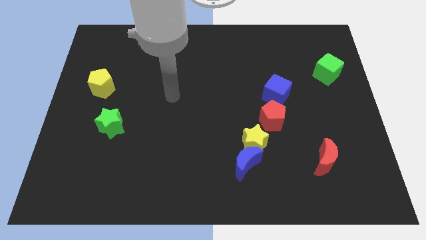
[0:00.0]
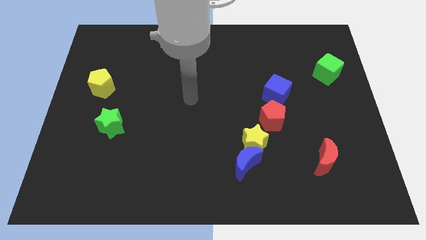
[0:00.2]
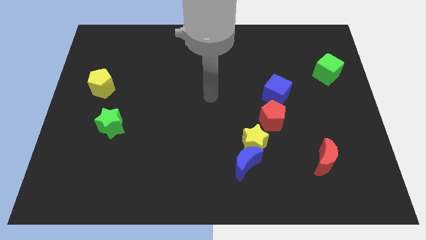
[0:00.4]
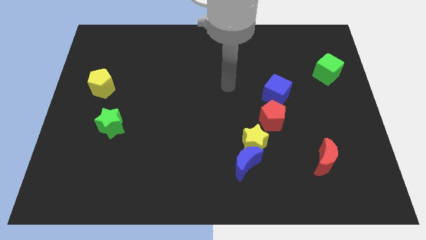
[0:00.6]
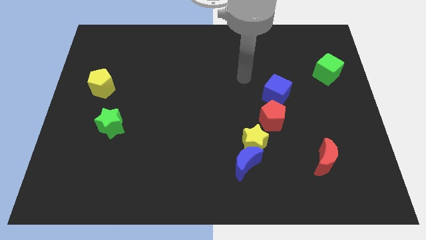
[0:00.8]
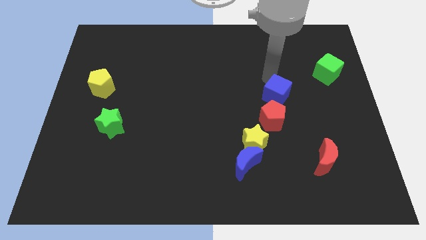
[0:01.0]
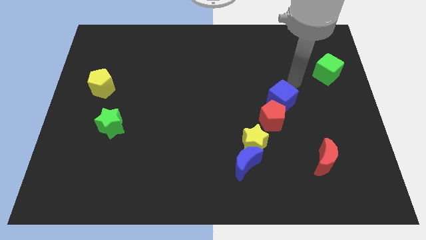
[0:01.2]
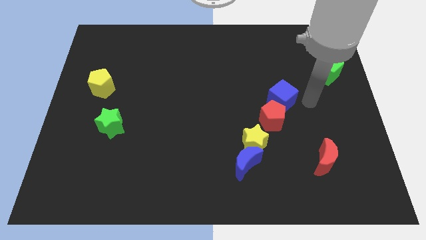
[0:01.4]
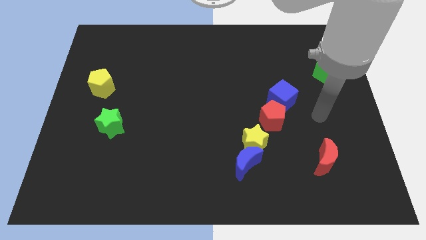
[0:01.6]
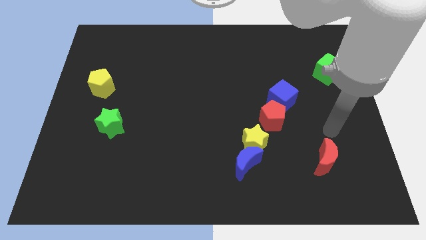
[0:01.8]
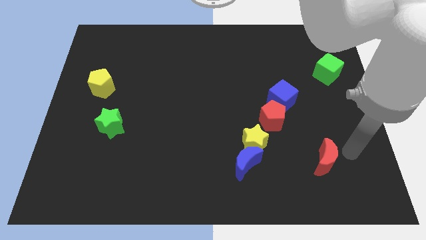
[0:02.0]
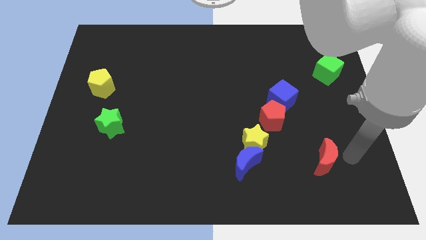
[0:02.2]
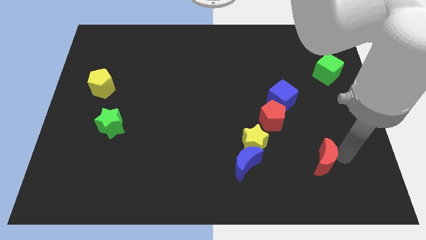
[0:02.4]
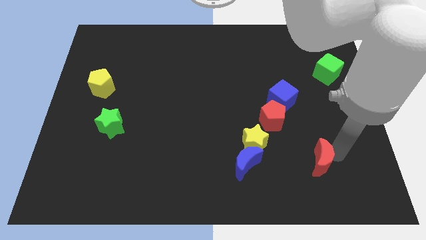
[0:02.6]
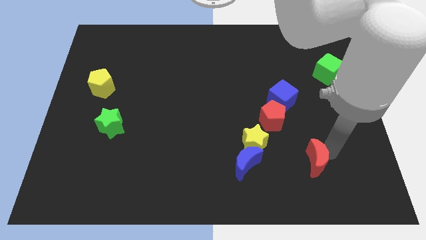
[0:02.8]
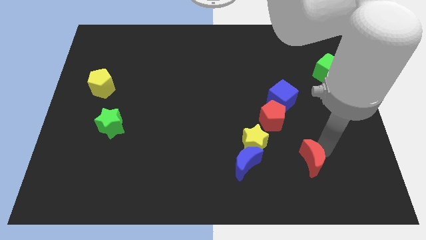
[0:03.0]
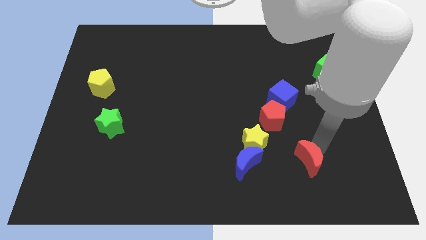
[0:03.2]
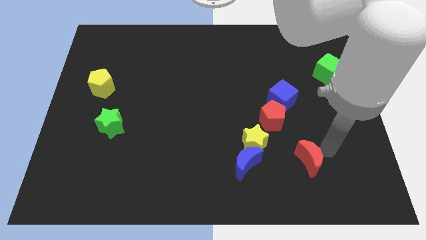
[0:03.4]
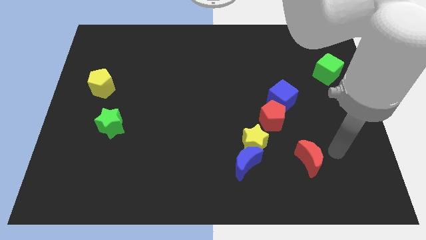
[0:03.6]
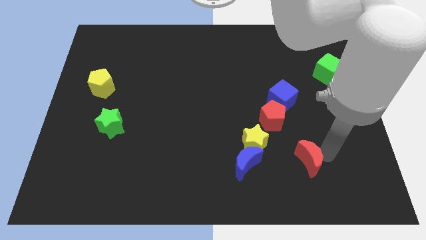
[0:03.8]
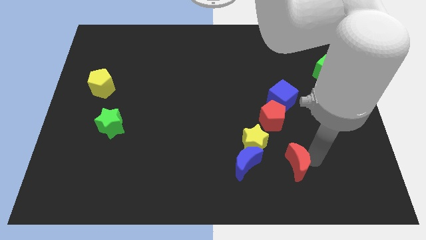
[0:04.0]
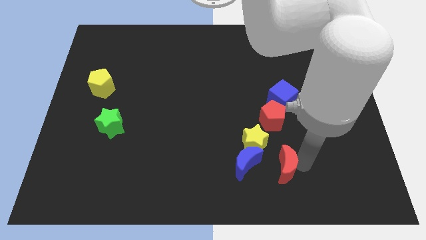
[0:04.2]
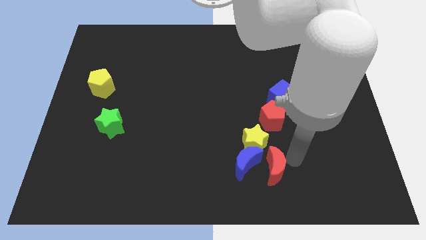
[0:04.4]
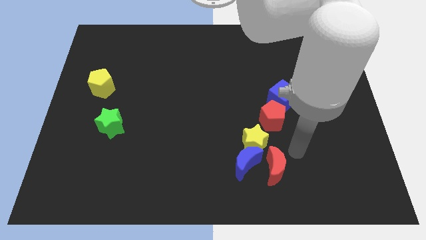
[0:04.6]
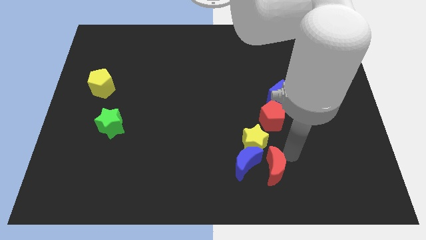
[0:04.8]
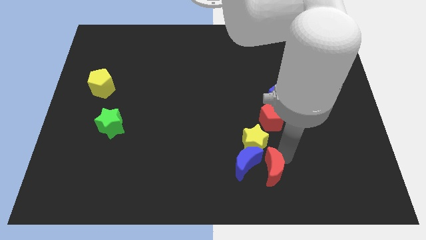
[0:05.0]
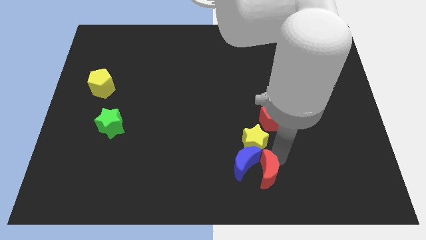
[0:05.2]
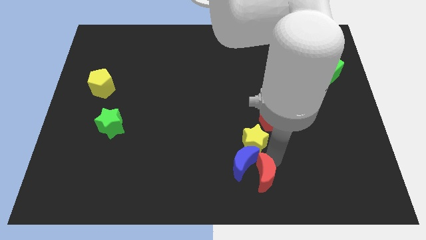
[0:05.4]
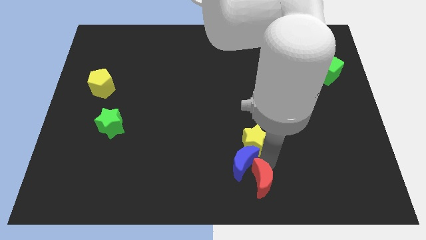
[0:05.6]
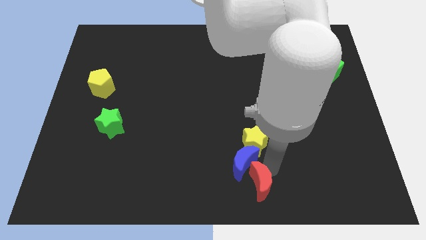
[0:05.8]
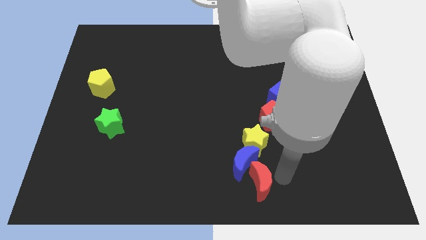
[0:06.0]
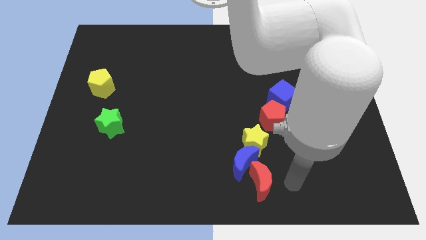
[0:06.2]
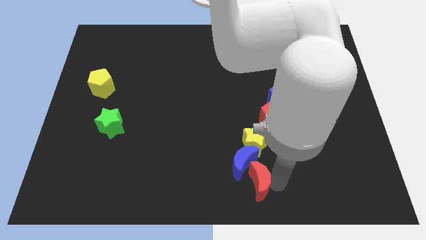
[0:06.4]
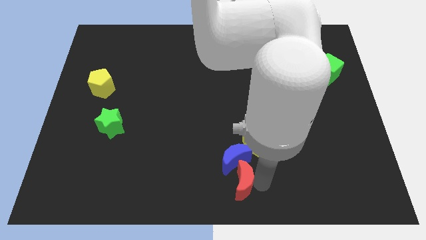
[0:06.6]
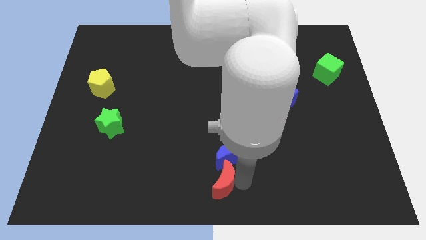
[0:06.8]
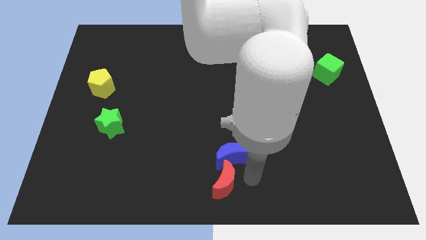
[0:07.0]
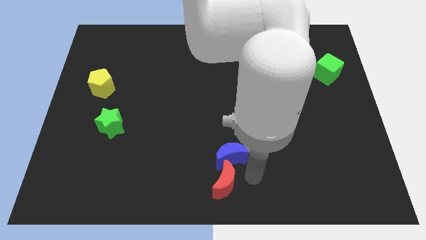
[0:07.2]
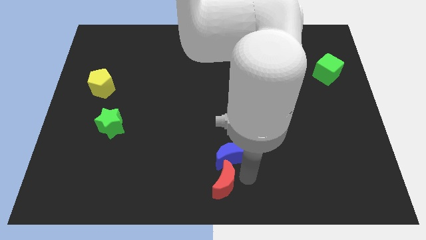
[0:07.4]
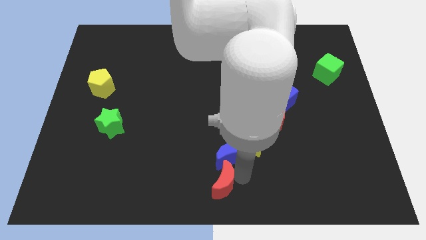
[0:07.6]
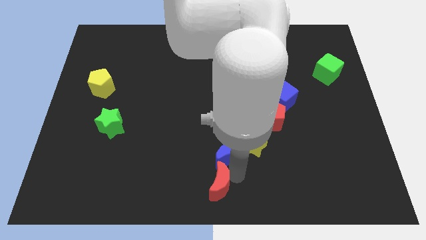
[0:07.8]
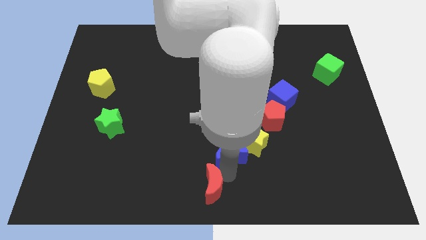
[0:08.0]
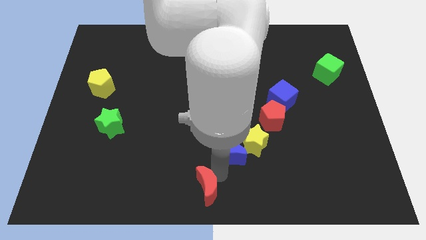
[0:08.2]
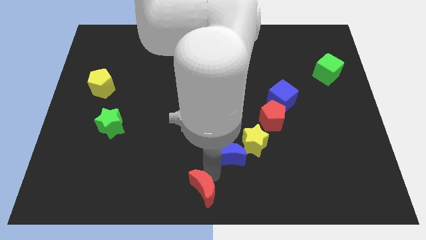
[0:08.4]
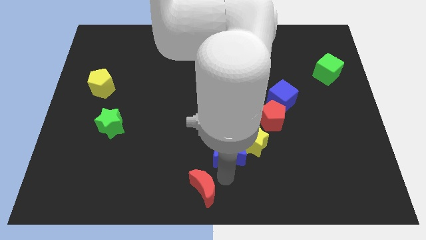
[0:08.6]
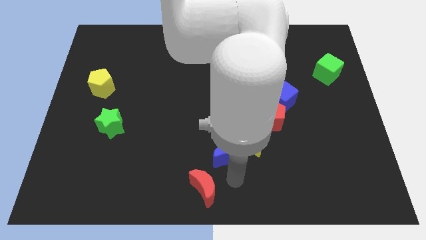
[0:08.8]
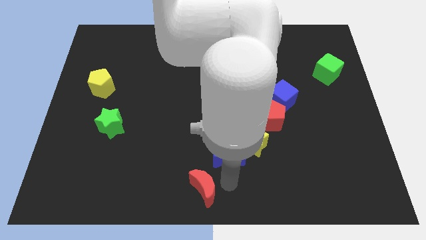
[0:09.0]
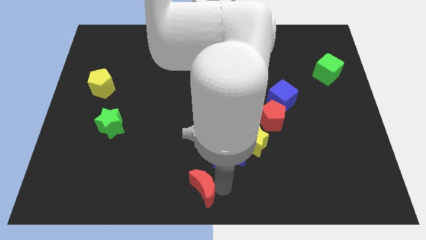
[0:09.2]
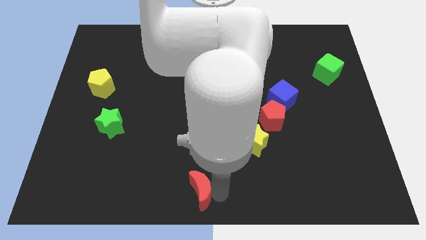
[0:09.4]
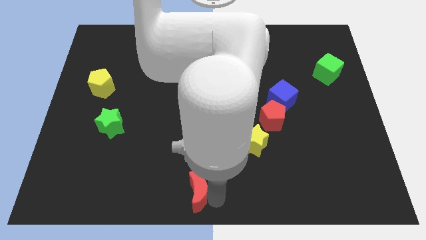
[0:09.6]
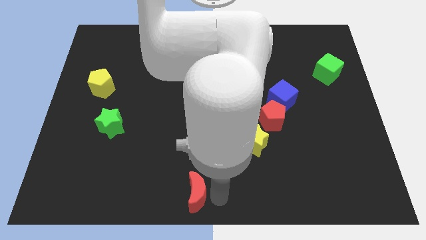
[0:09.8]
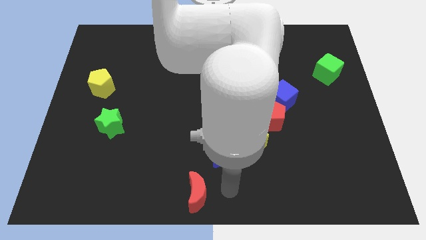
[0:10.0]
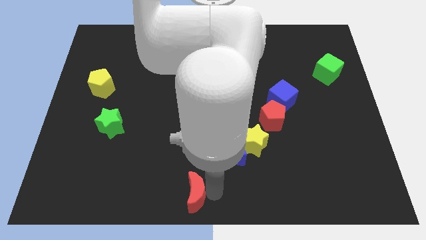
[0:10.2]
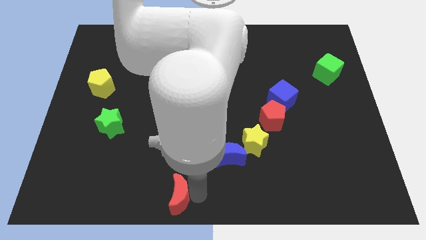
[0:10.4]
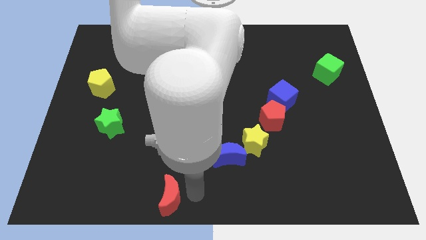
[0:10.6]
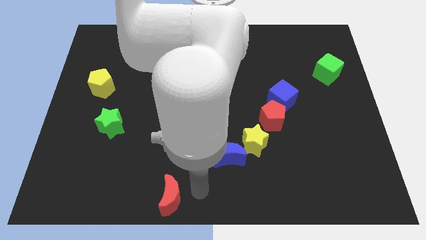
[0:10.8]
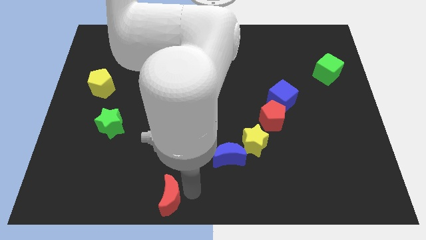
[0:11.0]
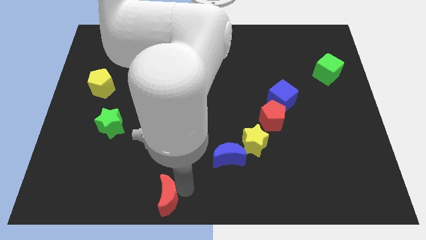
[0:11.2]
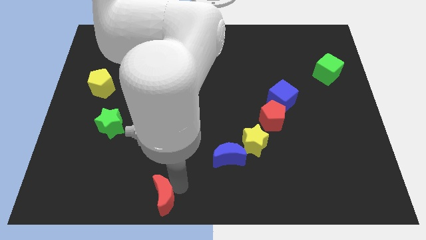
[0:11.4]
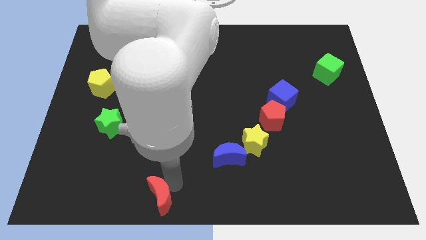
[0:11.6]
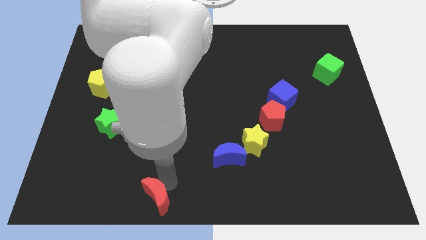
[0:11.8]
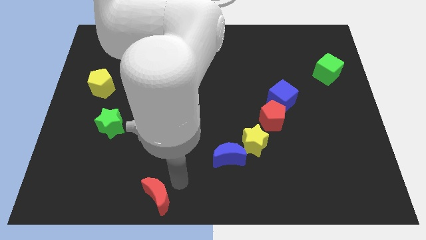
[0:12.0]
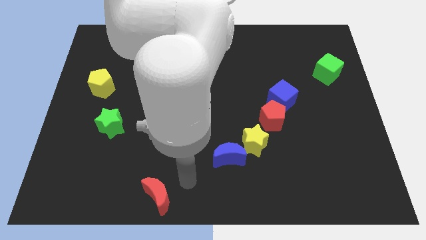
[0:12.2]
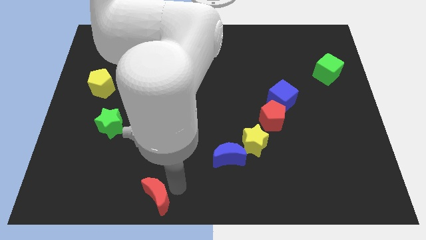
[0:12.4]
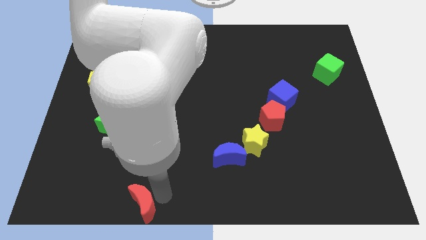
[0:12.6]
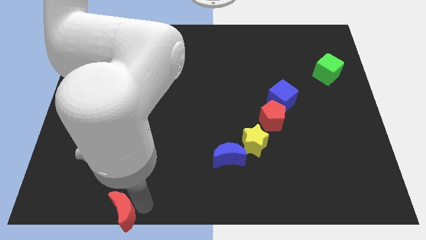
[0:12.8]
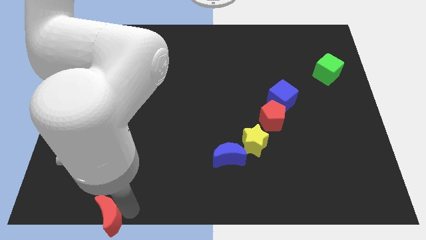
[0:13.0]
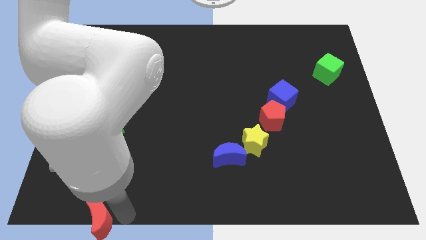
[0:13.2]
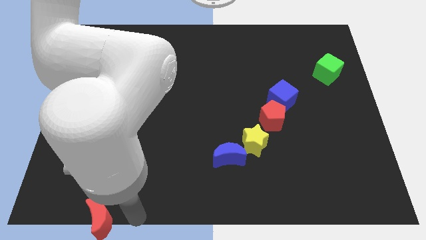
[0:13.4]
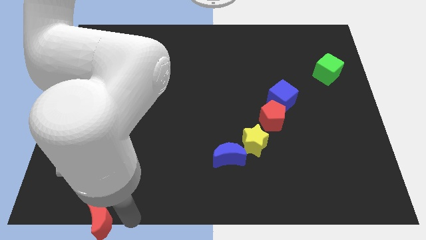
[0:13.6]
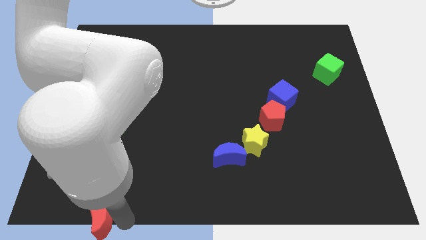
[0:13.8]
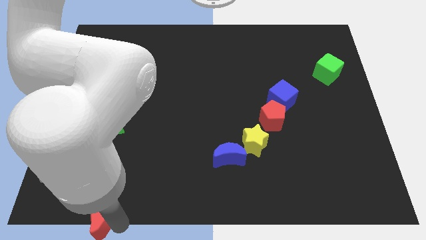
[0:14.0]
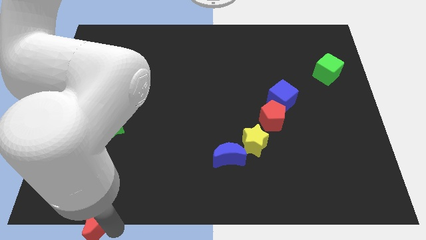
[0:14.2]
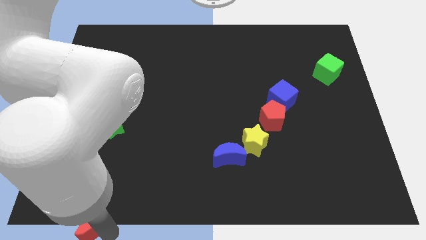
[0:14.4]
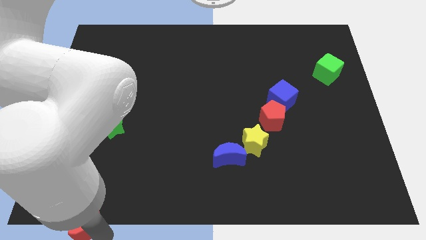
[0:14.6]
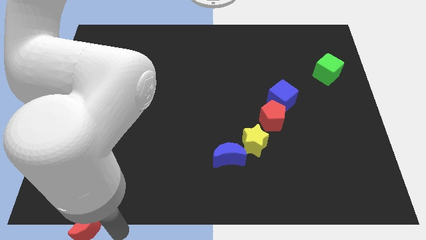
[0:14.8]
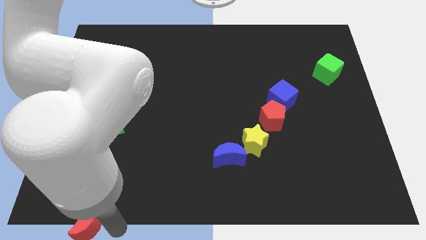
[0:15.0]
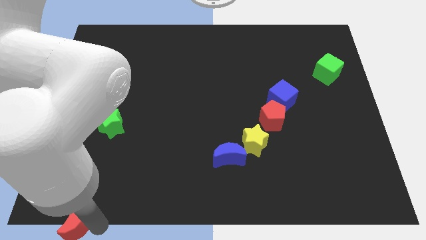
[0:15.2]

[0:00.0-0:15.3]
slide the red moon to the lower left corner

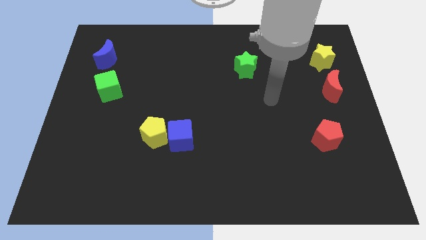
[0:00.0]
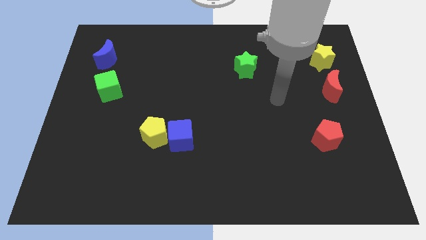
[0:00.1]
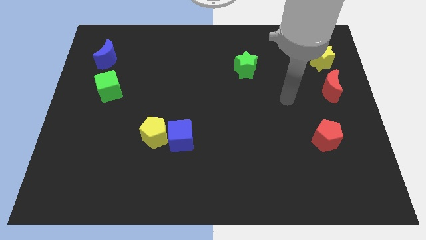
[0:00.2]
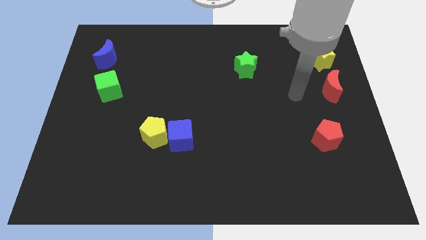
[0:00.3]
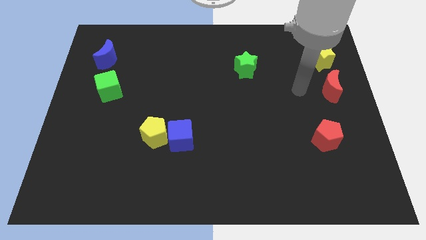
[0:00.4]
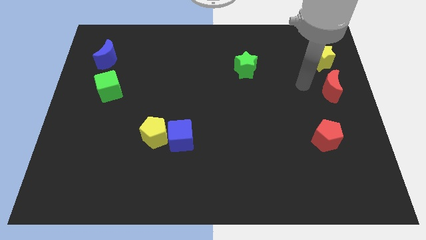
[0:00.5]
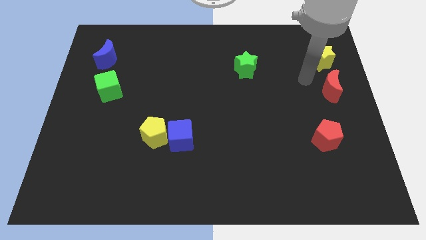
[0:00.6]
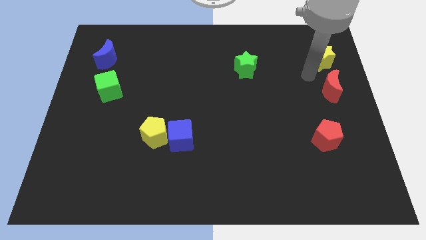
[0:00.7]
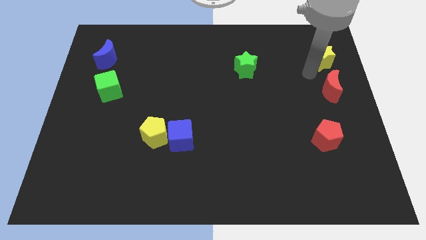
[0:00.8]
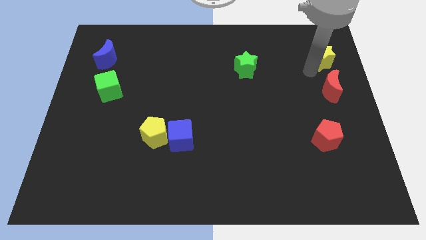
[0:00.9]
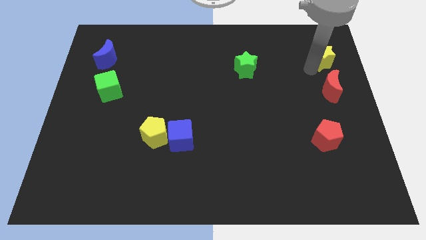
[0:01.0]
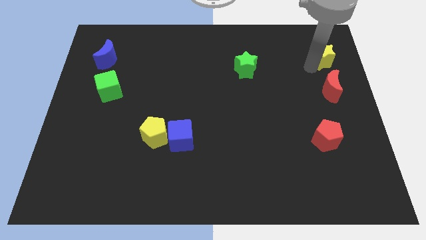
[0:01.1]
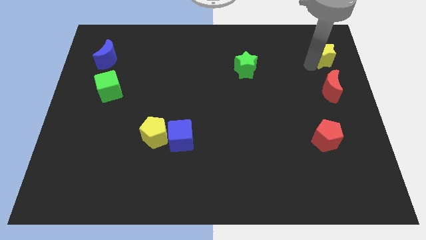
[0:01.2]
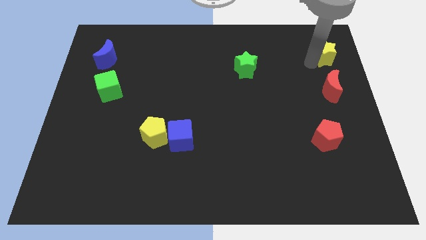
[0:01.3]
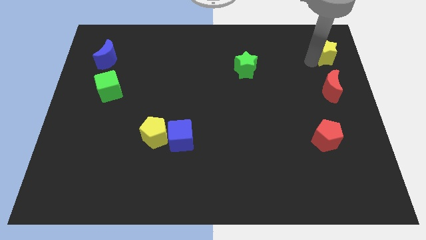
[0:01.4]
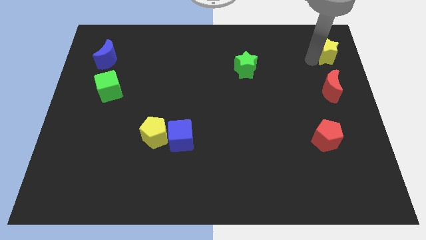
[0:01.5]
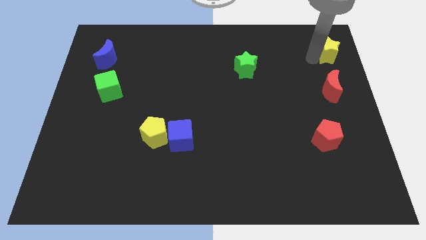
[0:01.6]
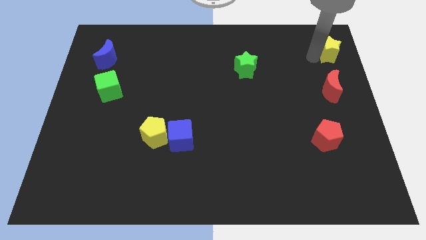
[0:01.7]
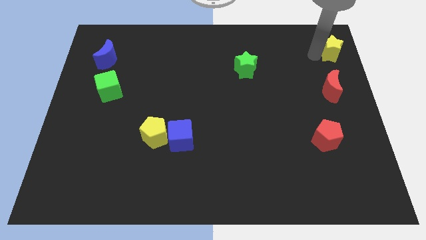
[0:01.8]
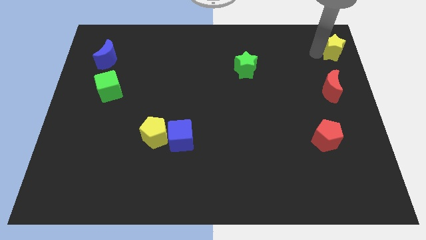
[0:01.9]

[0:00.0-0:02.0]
push the yellow star to the top right of the board
